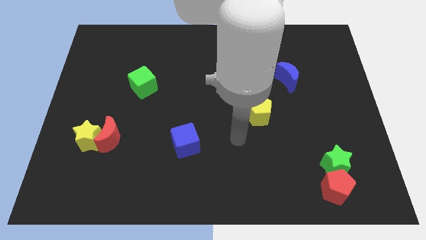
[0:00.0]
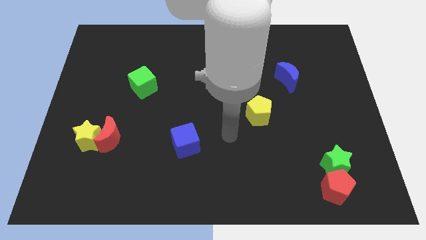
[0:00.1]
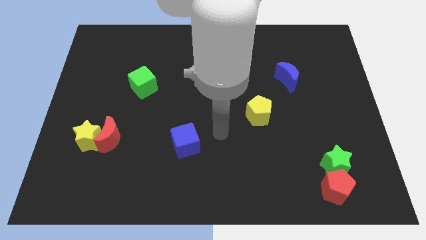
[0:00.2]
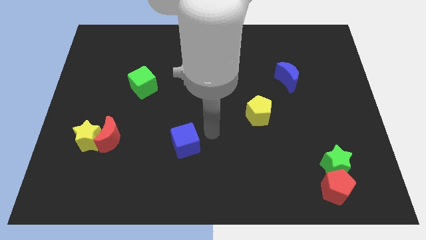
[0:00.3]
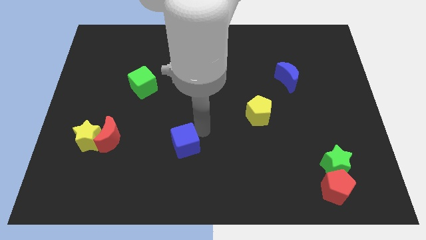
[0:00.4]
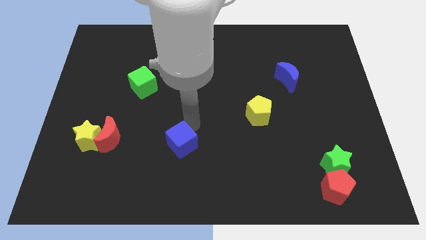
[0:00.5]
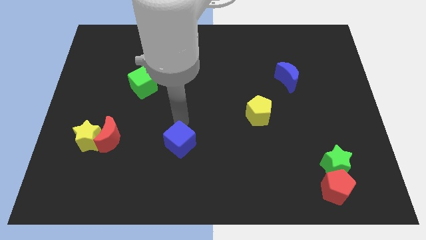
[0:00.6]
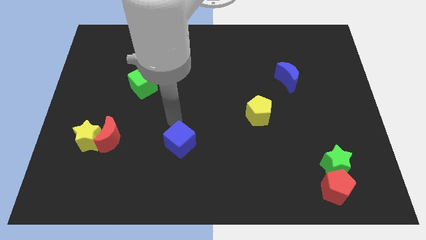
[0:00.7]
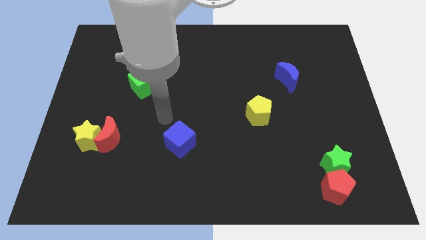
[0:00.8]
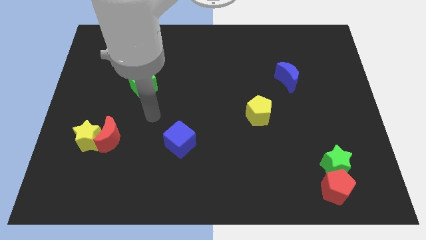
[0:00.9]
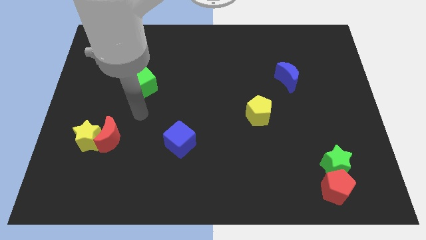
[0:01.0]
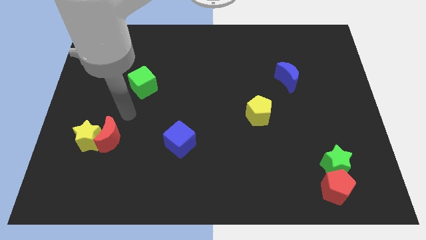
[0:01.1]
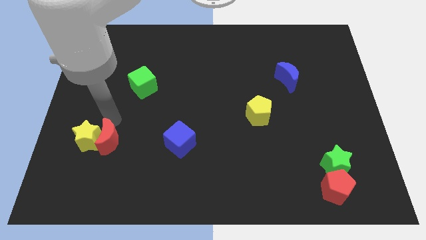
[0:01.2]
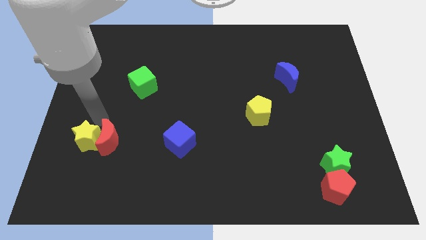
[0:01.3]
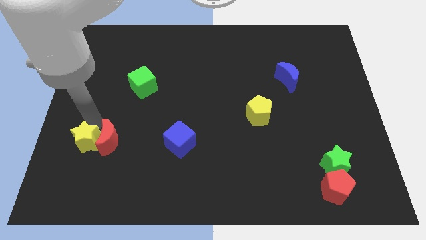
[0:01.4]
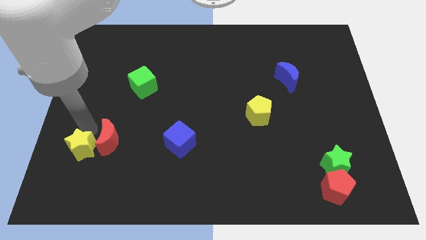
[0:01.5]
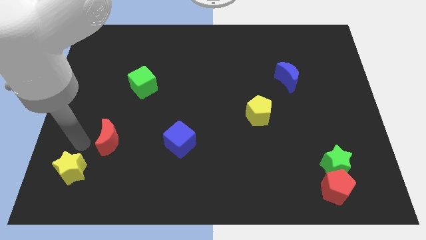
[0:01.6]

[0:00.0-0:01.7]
pull the red moon apart from the yellow star

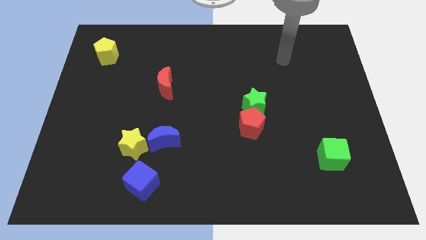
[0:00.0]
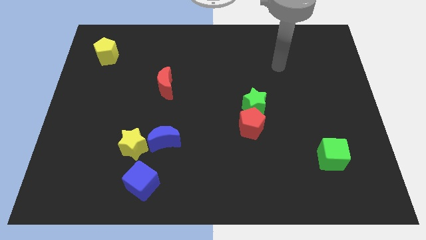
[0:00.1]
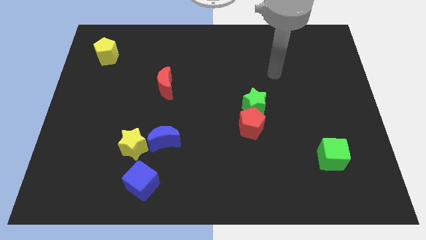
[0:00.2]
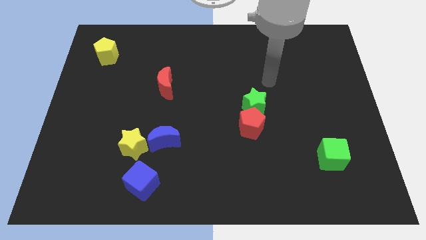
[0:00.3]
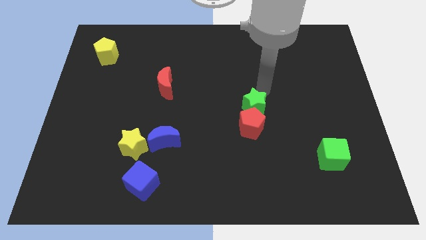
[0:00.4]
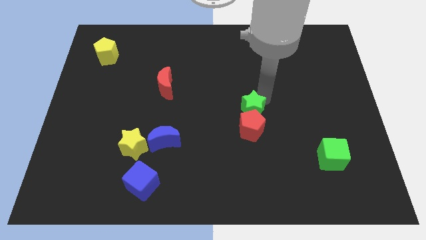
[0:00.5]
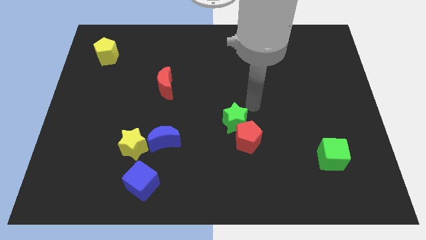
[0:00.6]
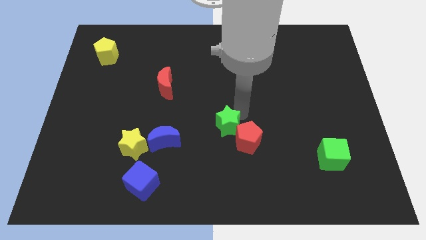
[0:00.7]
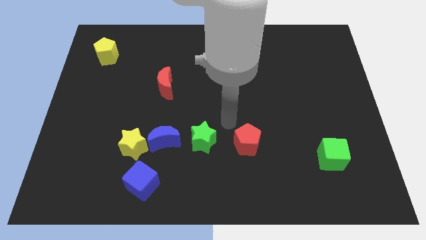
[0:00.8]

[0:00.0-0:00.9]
move the red pentagon away from the green star

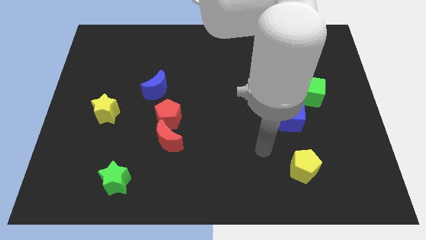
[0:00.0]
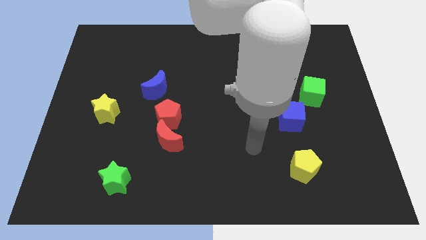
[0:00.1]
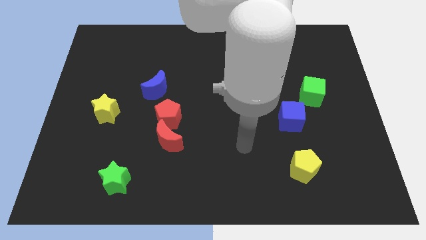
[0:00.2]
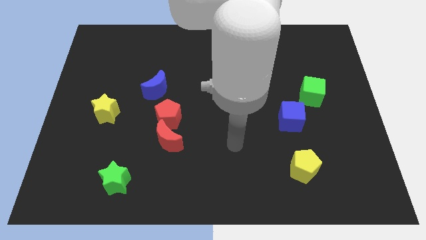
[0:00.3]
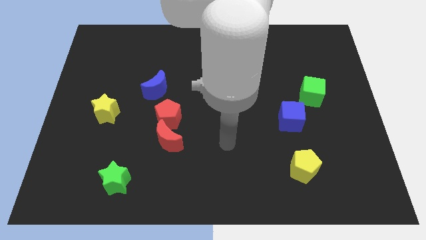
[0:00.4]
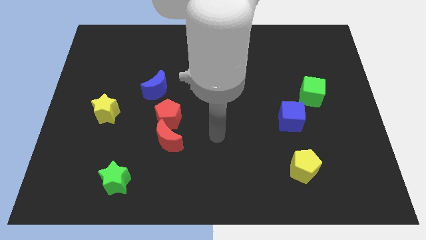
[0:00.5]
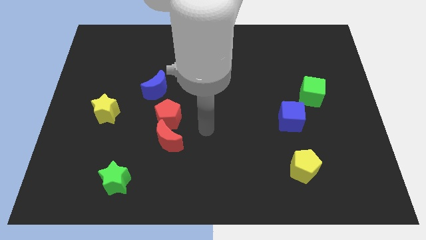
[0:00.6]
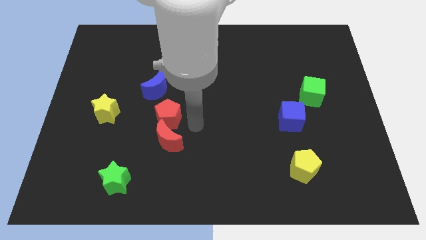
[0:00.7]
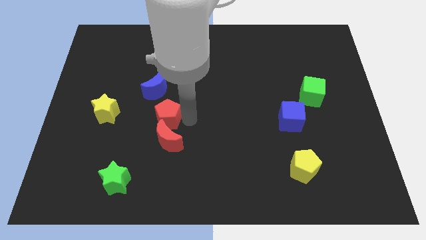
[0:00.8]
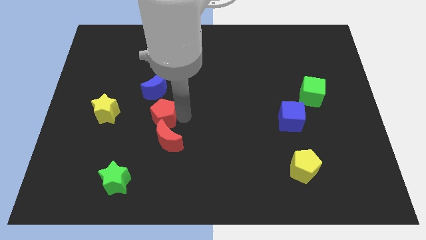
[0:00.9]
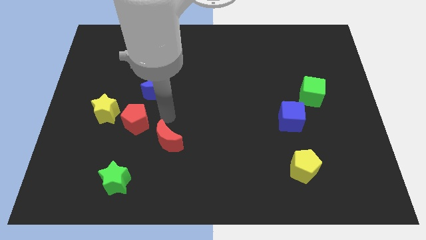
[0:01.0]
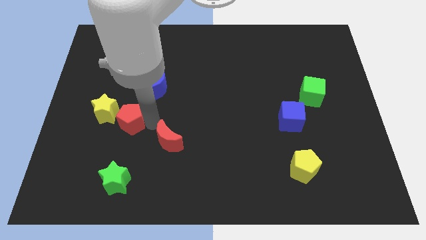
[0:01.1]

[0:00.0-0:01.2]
move the red moon away from the red pentagon

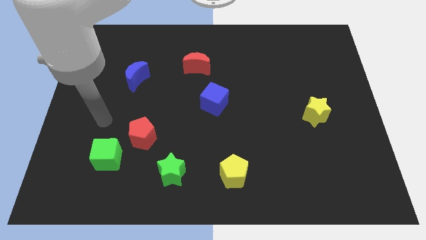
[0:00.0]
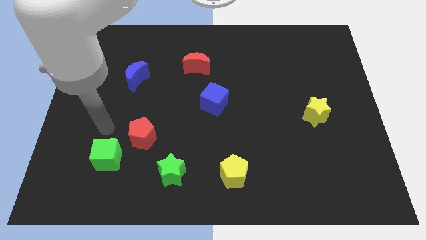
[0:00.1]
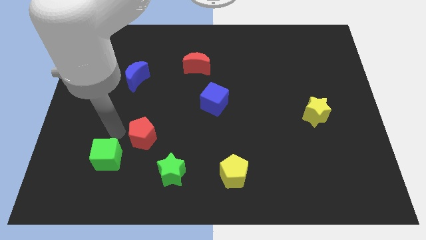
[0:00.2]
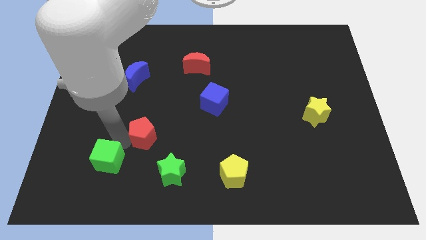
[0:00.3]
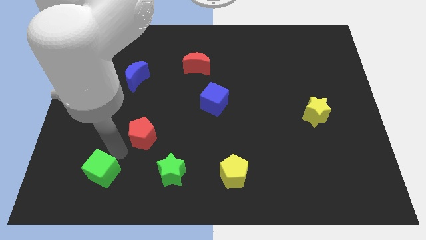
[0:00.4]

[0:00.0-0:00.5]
separate the red pentagon from the green cube

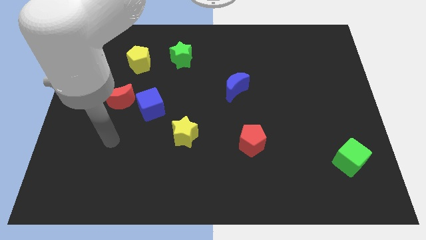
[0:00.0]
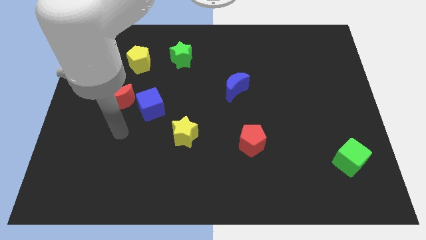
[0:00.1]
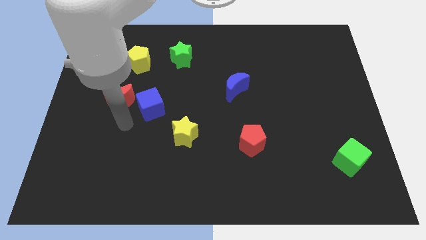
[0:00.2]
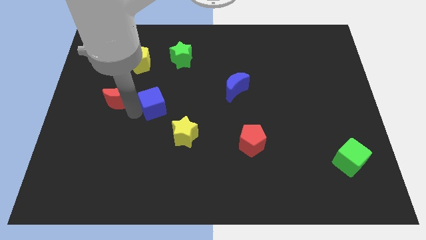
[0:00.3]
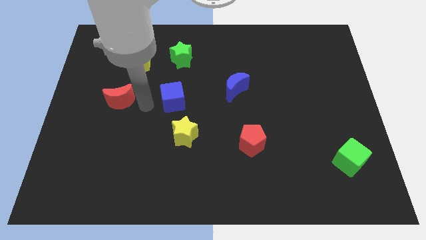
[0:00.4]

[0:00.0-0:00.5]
pull the red moon apart from the blue cube

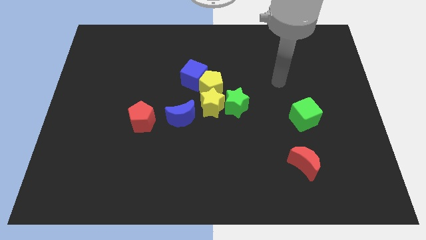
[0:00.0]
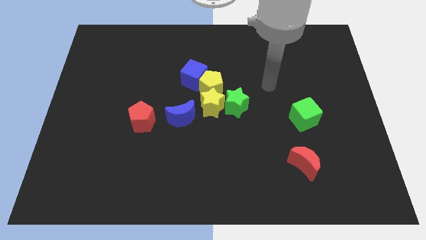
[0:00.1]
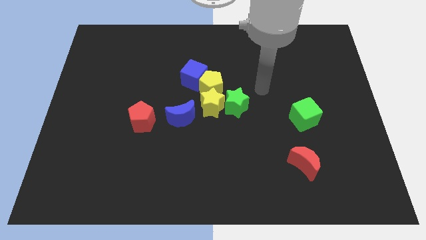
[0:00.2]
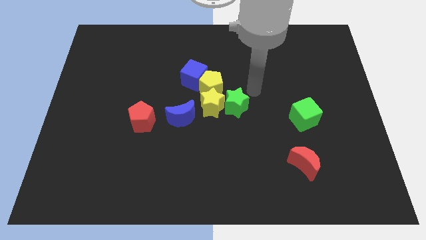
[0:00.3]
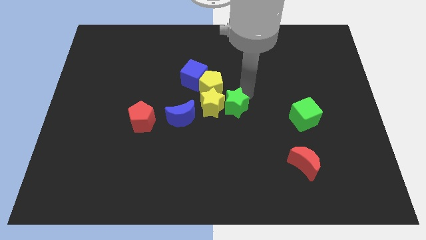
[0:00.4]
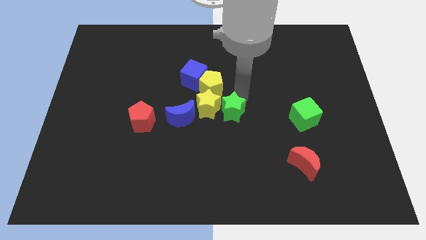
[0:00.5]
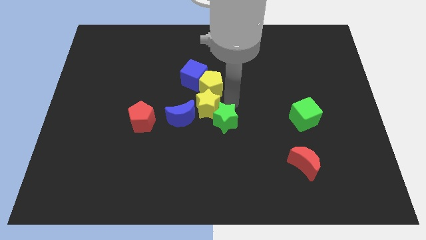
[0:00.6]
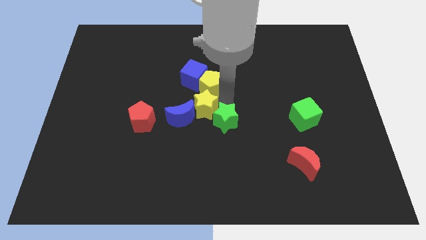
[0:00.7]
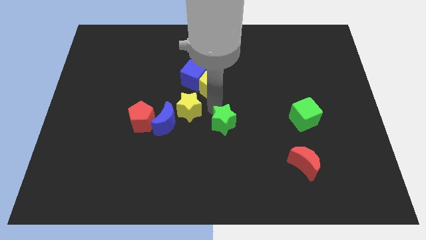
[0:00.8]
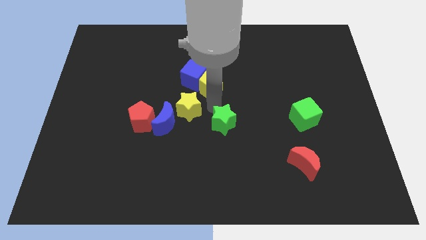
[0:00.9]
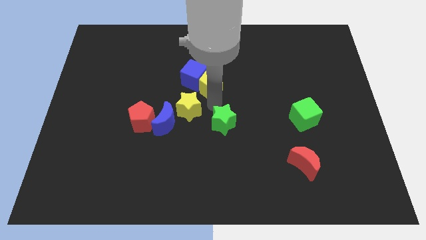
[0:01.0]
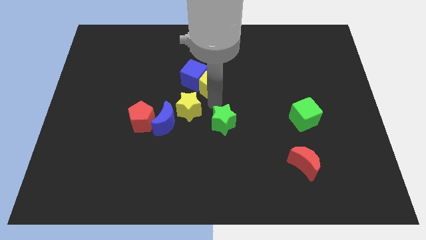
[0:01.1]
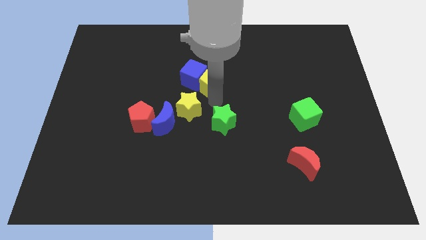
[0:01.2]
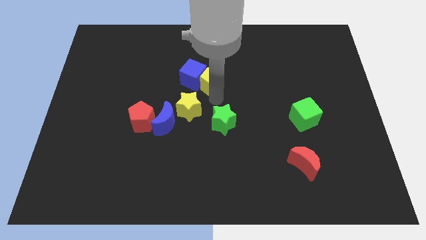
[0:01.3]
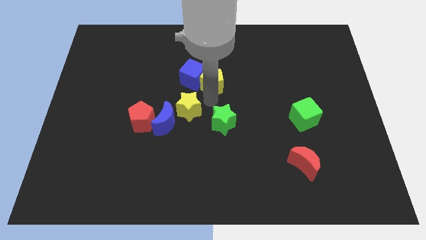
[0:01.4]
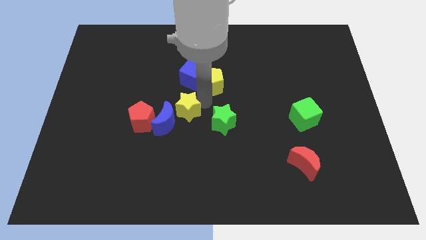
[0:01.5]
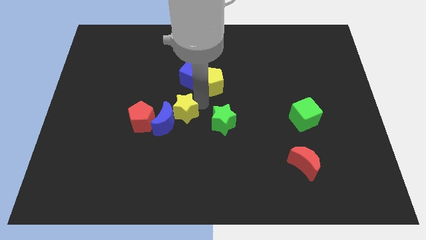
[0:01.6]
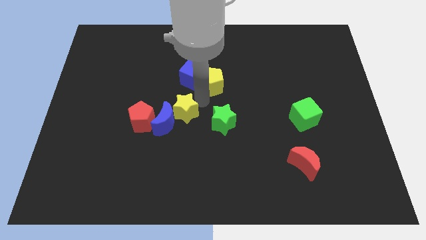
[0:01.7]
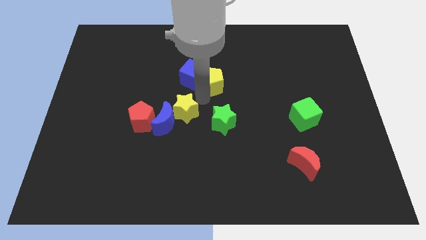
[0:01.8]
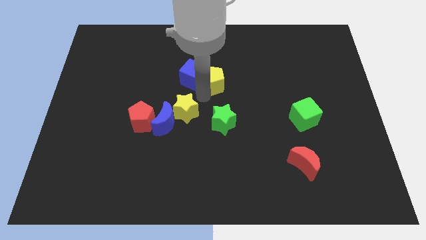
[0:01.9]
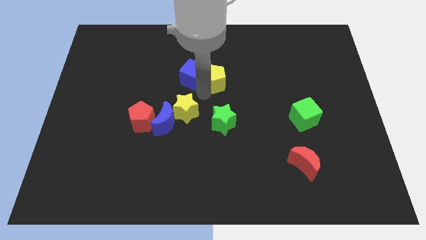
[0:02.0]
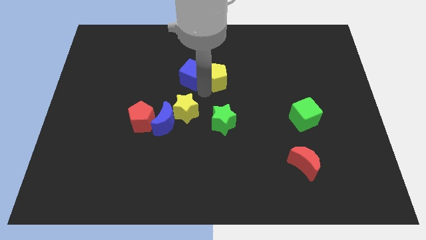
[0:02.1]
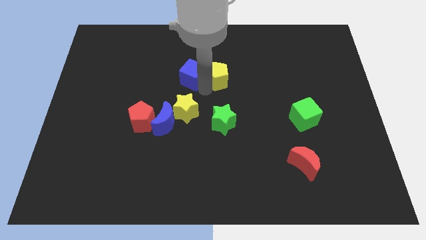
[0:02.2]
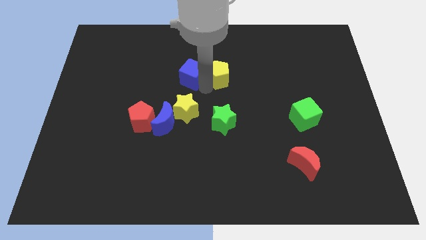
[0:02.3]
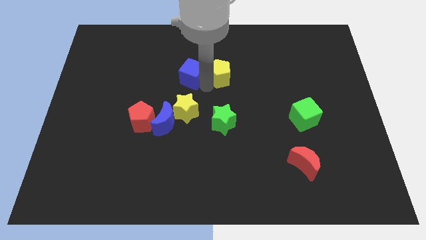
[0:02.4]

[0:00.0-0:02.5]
pull the yellow pentagon apart from the group

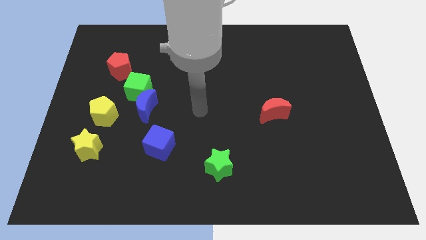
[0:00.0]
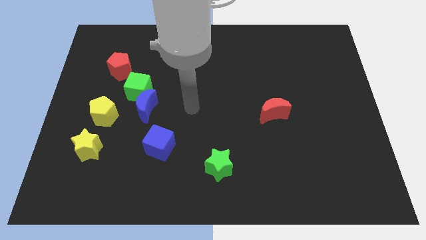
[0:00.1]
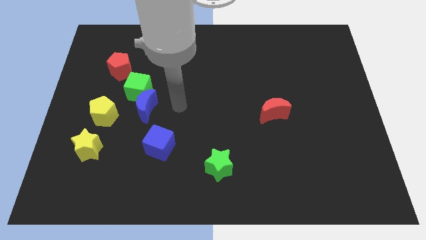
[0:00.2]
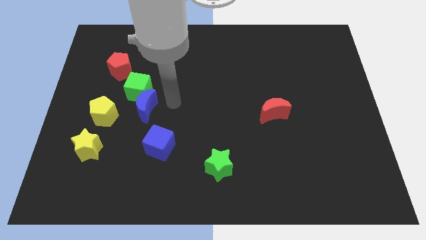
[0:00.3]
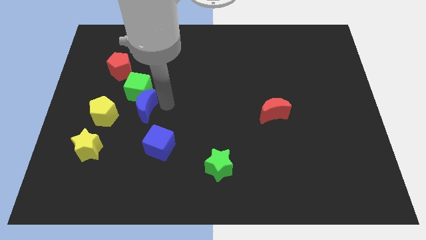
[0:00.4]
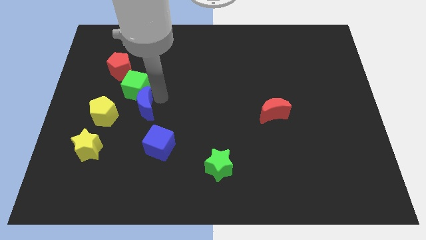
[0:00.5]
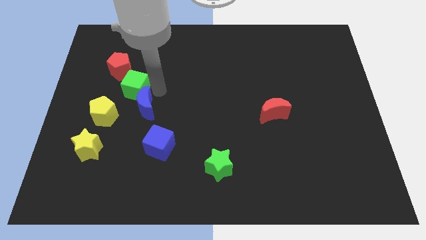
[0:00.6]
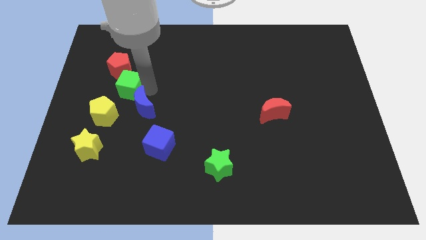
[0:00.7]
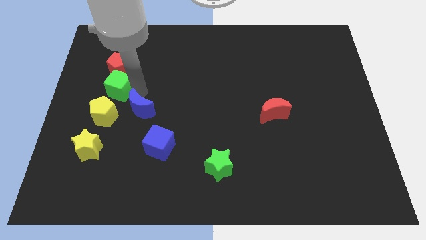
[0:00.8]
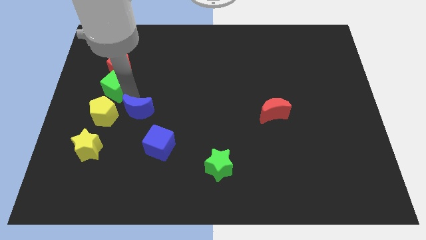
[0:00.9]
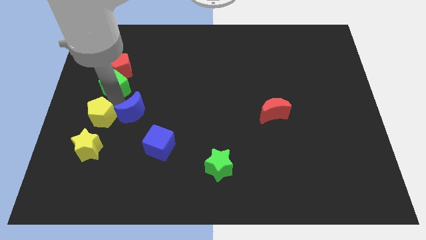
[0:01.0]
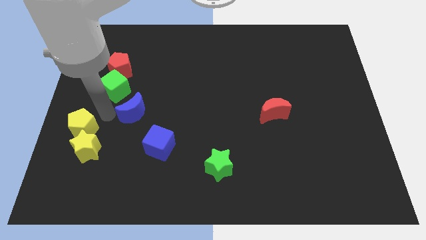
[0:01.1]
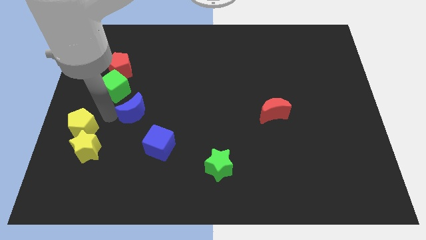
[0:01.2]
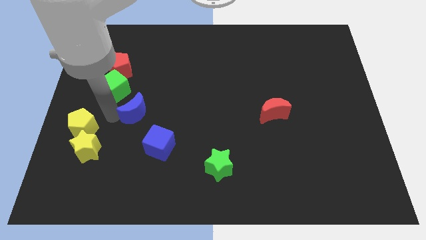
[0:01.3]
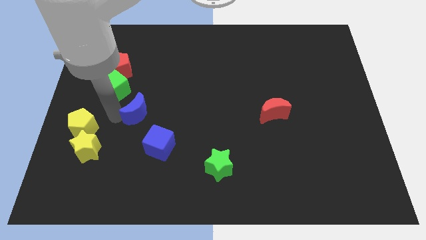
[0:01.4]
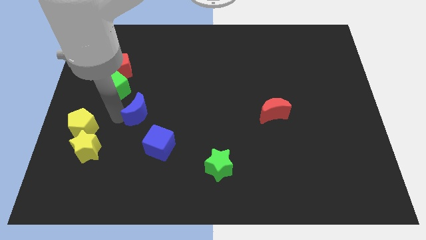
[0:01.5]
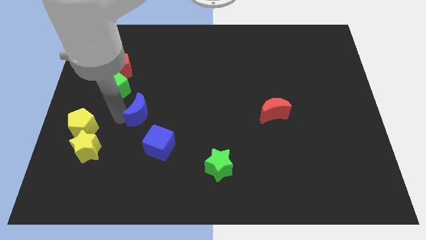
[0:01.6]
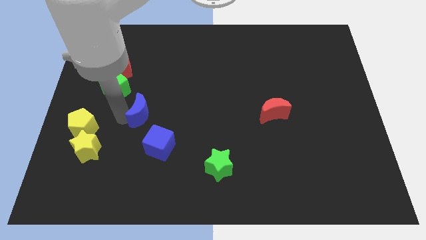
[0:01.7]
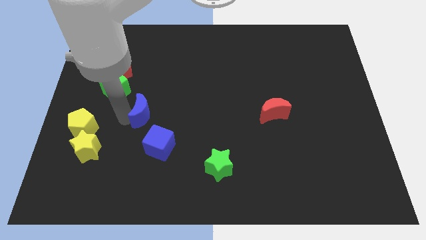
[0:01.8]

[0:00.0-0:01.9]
separate the blue moon from the green cube and yellow pentagon

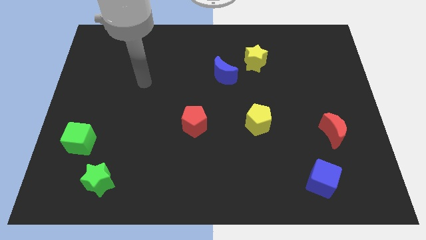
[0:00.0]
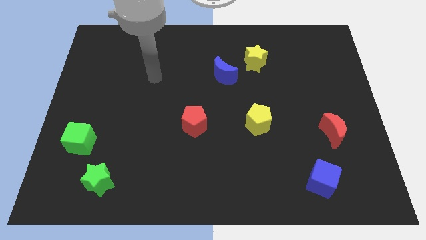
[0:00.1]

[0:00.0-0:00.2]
pull the blue moon apart from the yellow star
